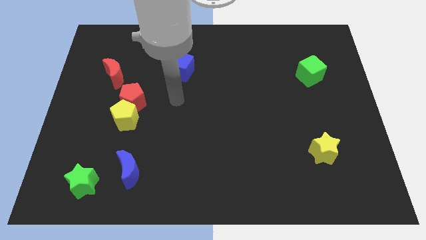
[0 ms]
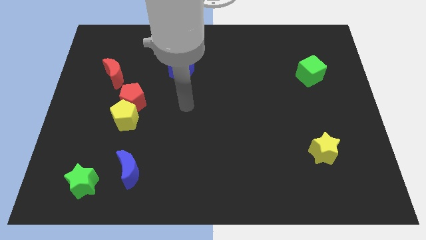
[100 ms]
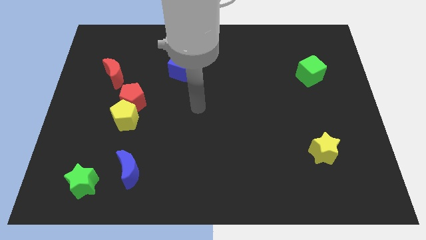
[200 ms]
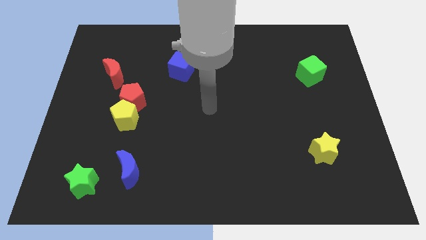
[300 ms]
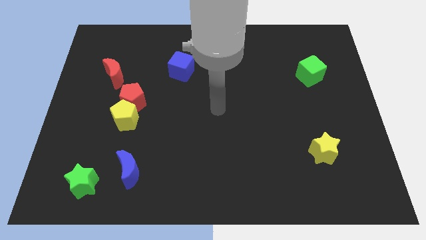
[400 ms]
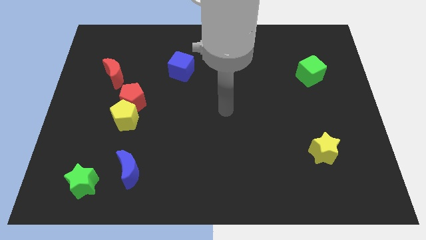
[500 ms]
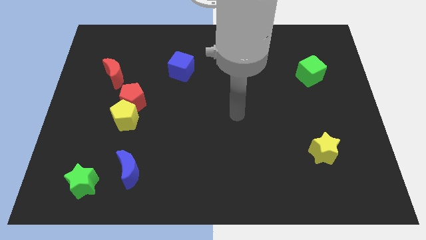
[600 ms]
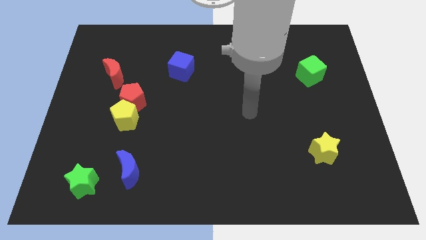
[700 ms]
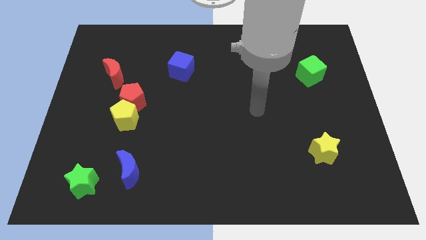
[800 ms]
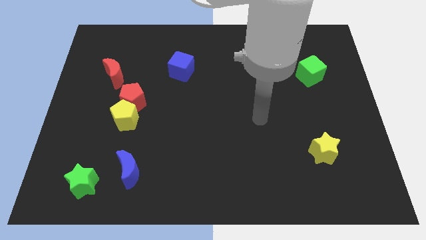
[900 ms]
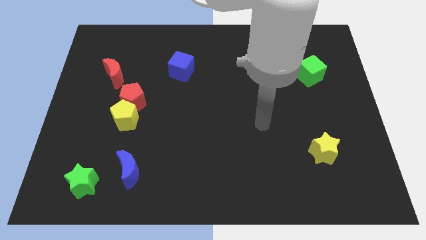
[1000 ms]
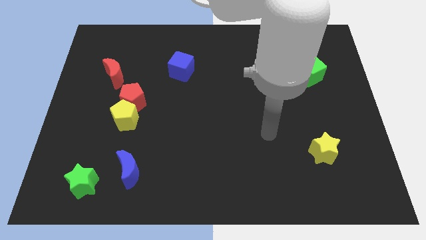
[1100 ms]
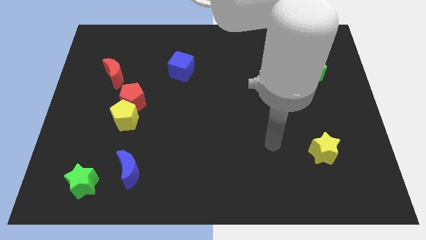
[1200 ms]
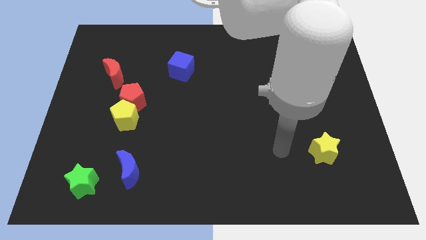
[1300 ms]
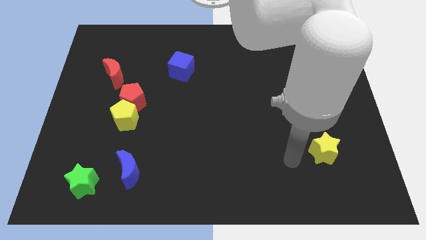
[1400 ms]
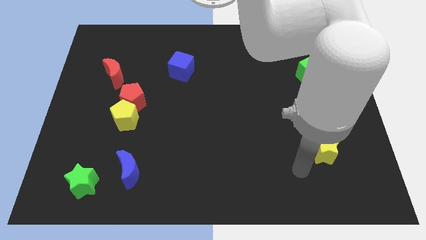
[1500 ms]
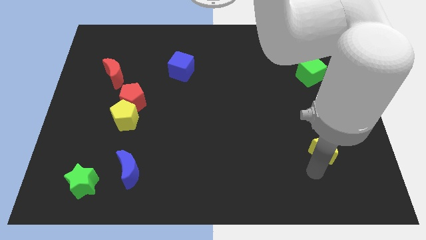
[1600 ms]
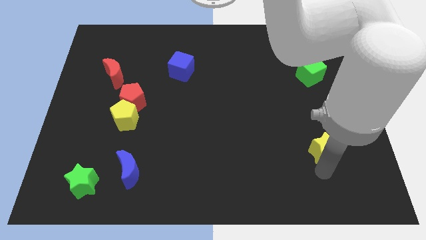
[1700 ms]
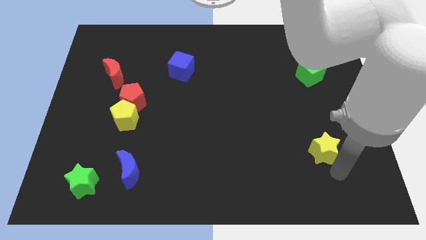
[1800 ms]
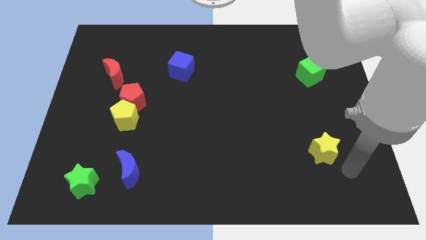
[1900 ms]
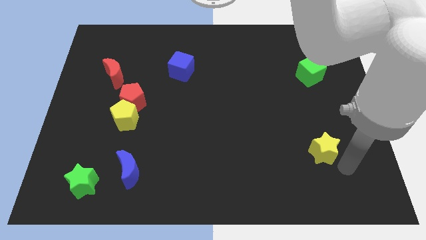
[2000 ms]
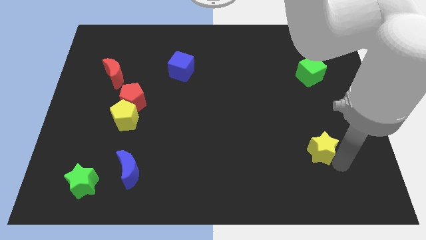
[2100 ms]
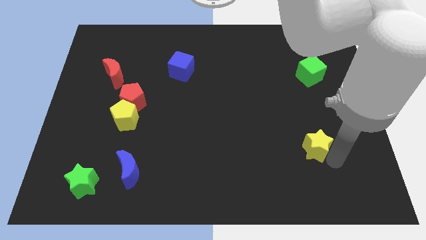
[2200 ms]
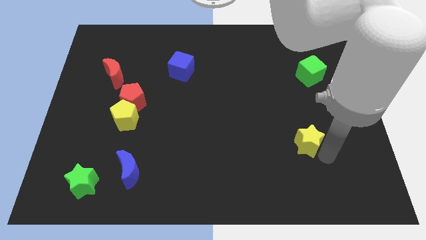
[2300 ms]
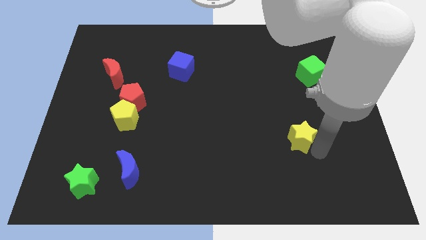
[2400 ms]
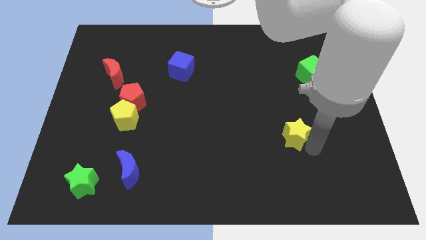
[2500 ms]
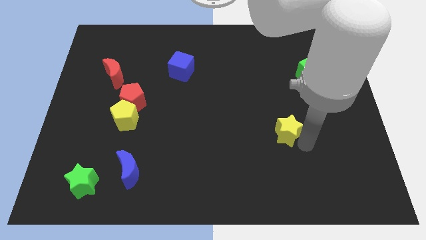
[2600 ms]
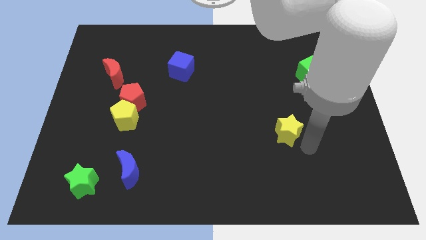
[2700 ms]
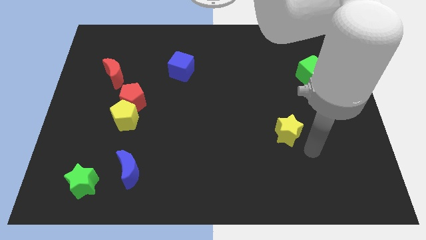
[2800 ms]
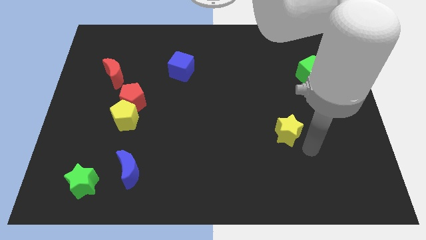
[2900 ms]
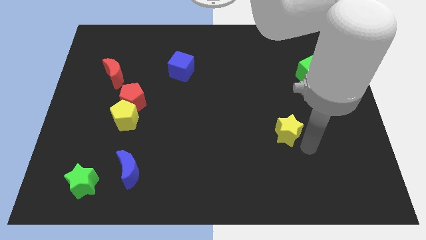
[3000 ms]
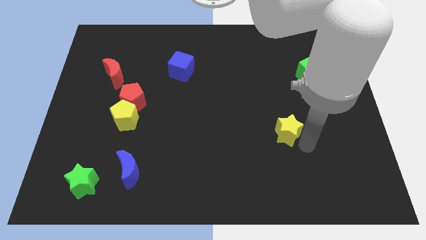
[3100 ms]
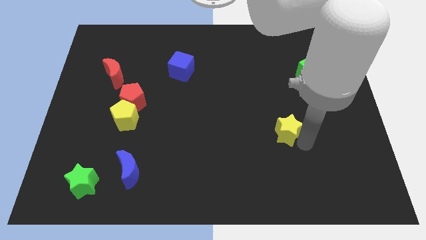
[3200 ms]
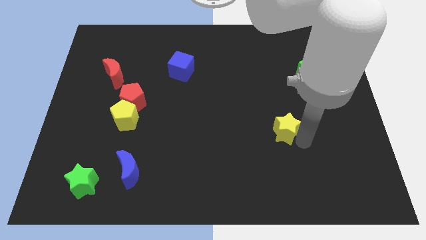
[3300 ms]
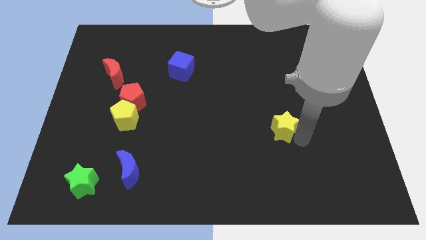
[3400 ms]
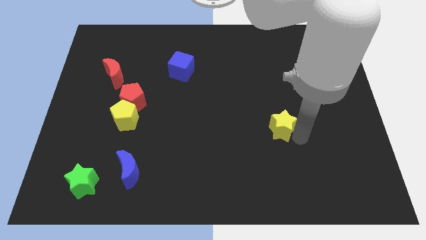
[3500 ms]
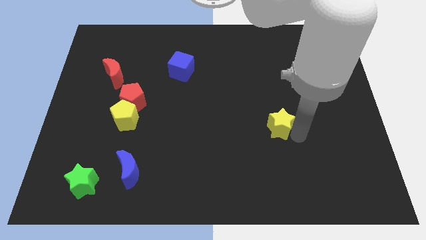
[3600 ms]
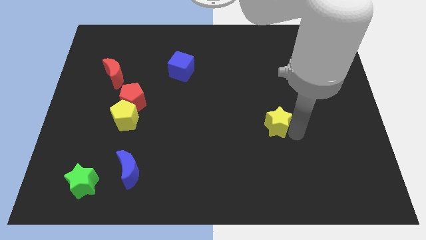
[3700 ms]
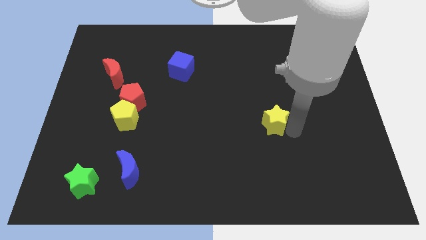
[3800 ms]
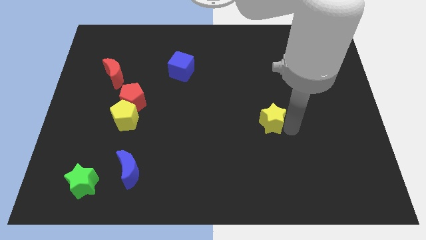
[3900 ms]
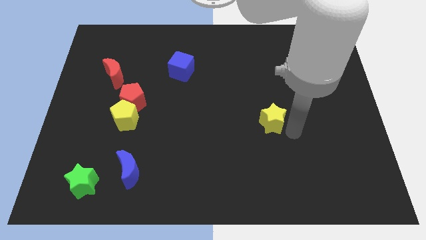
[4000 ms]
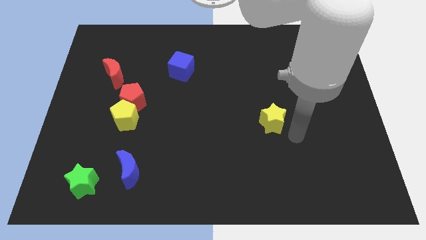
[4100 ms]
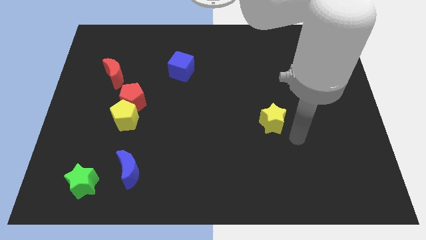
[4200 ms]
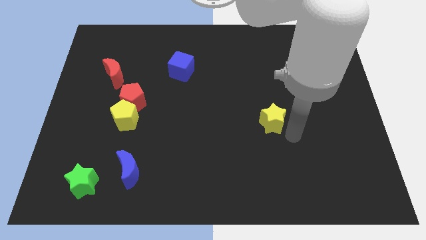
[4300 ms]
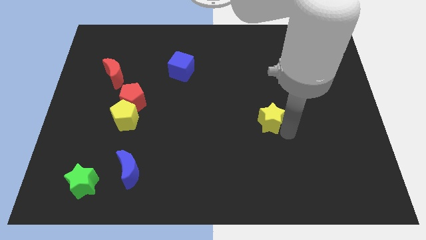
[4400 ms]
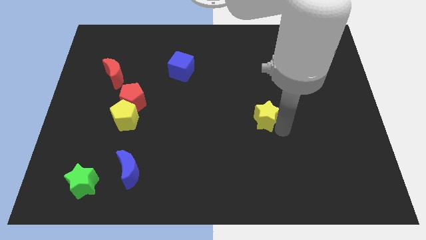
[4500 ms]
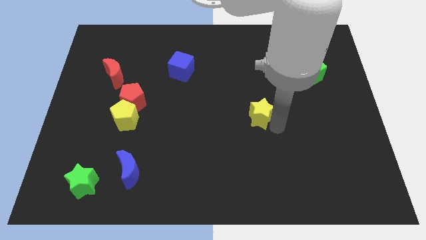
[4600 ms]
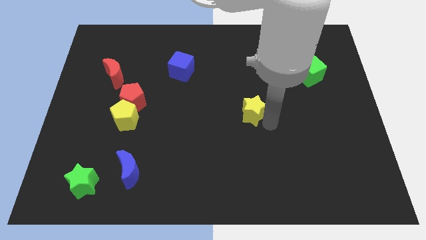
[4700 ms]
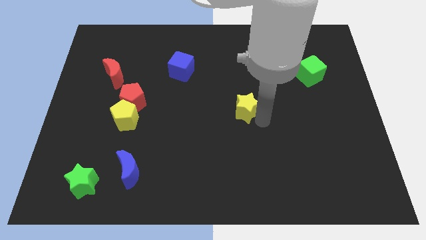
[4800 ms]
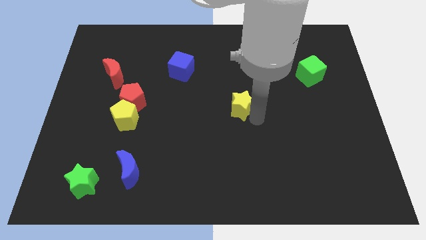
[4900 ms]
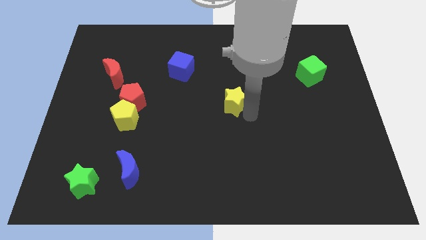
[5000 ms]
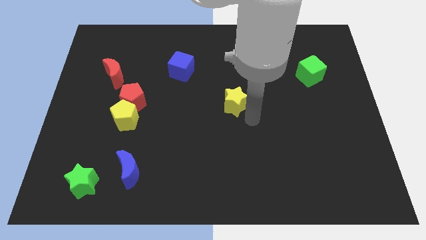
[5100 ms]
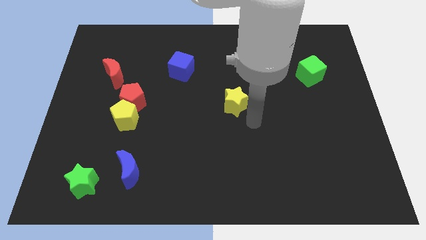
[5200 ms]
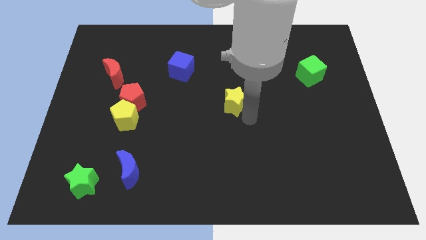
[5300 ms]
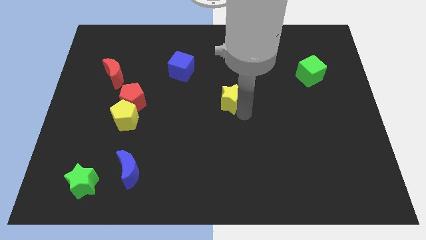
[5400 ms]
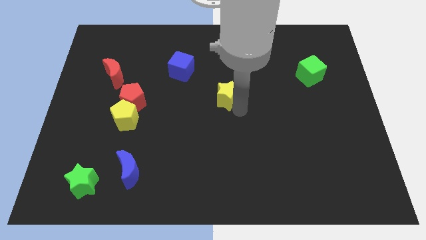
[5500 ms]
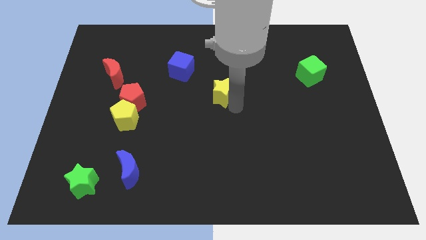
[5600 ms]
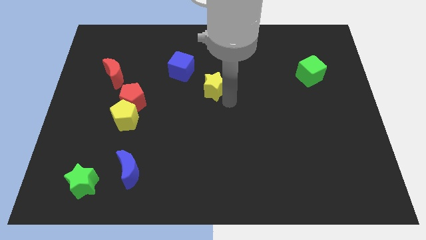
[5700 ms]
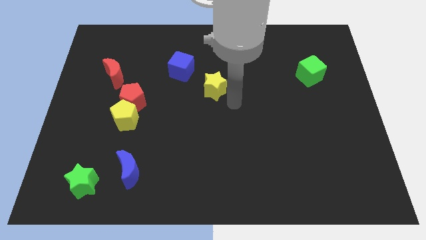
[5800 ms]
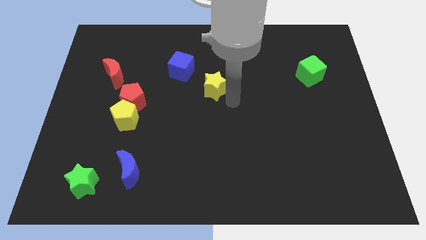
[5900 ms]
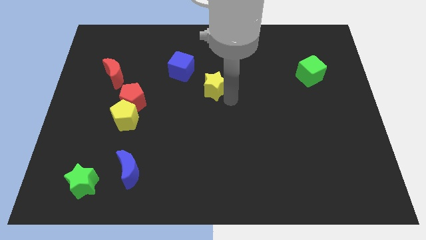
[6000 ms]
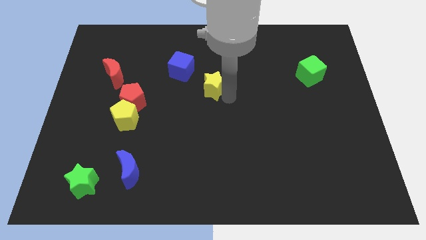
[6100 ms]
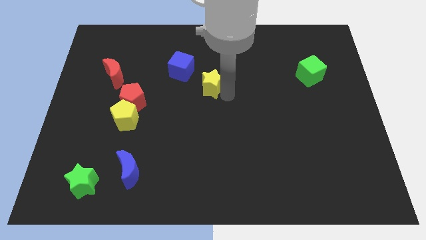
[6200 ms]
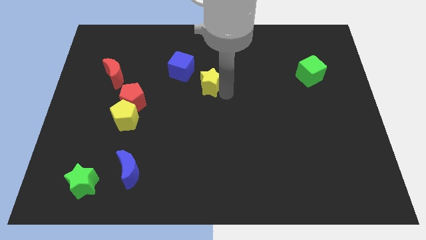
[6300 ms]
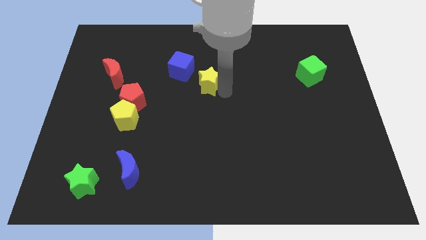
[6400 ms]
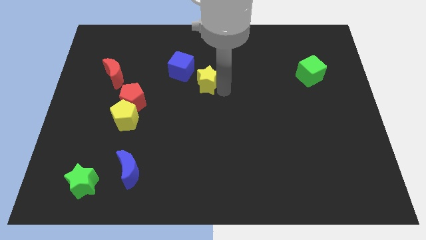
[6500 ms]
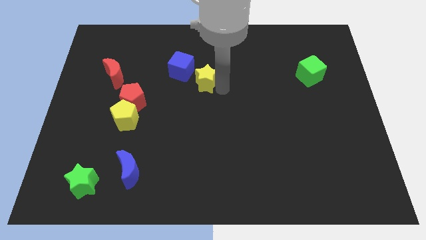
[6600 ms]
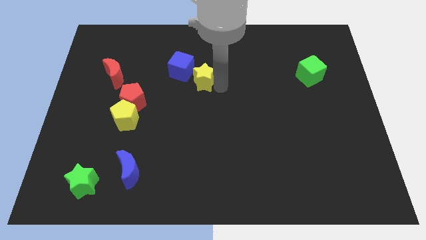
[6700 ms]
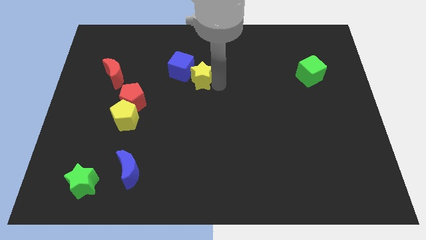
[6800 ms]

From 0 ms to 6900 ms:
put the yellow star next to the blue cube

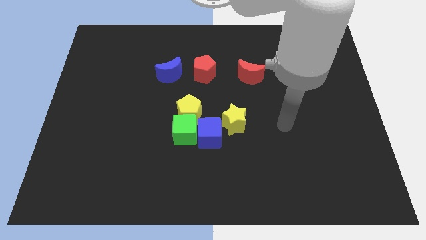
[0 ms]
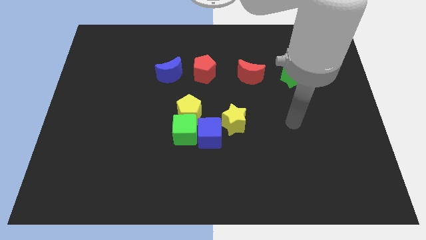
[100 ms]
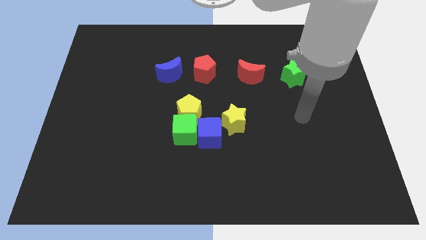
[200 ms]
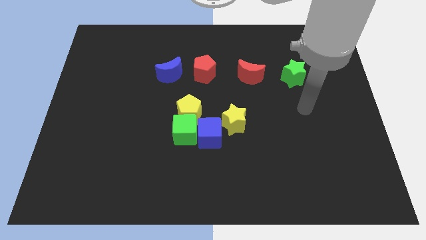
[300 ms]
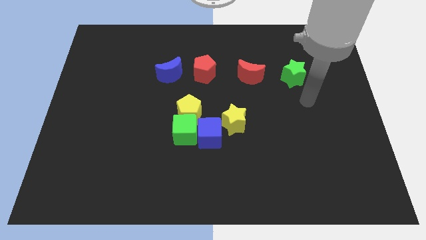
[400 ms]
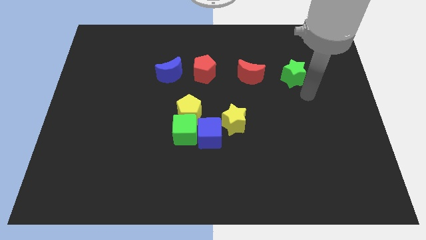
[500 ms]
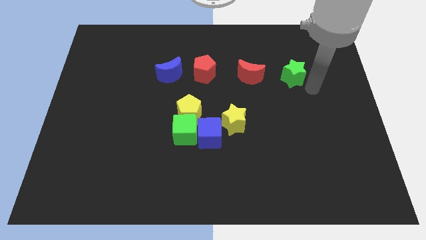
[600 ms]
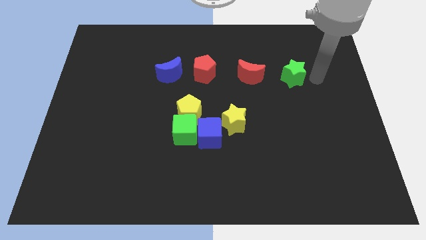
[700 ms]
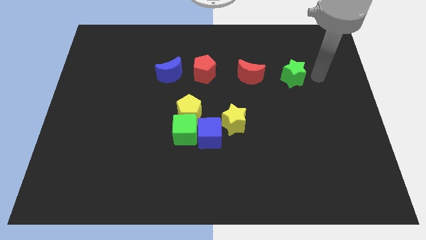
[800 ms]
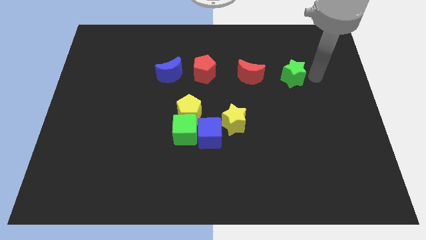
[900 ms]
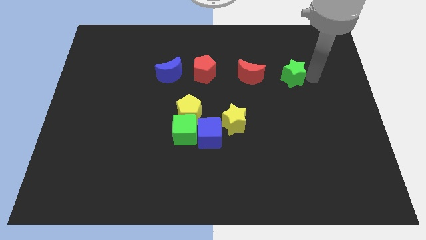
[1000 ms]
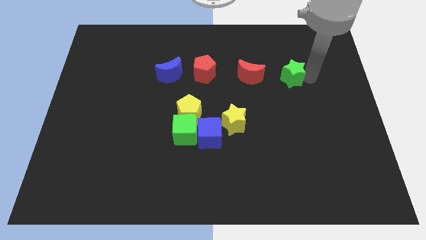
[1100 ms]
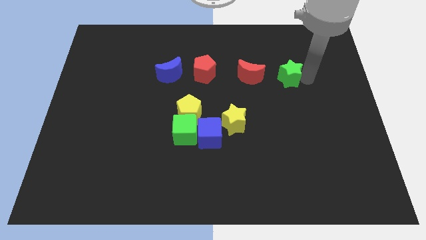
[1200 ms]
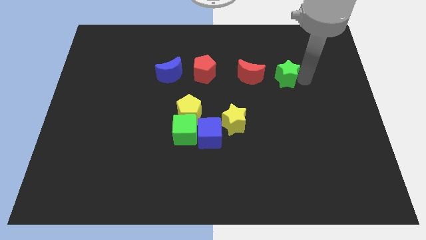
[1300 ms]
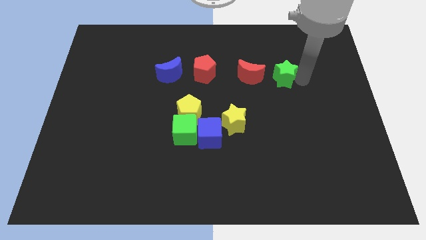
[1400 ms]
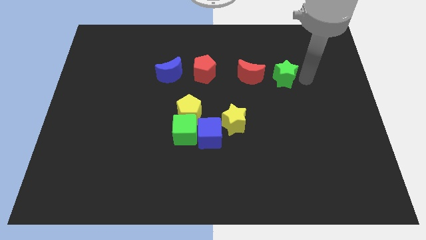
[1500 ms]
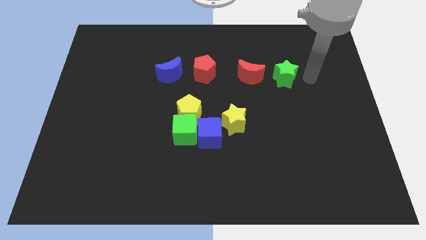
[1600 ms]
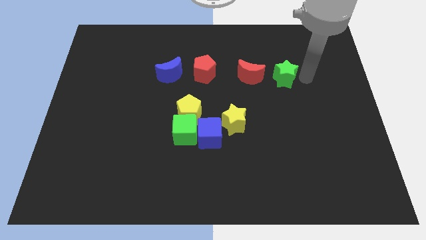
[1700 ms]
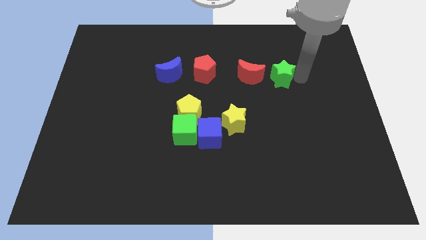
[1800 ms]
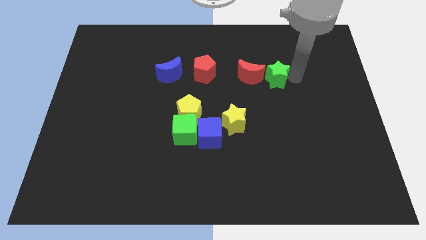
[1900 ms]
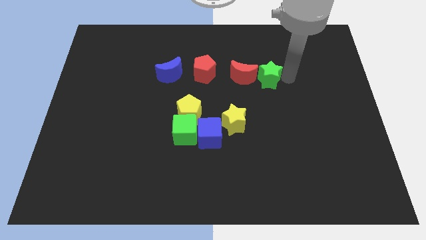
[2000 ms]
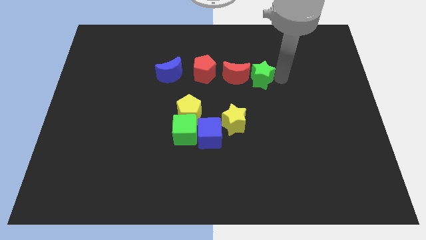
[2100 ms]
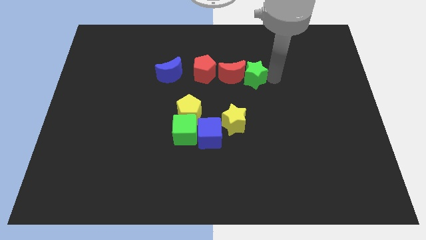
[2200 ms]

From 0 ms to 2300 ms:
move the green star next to the red moon
